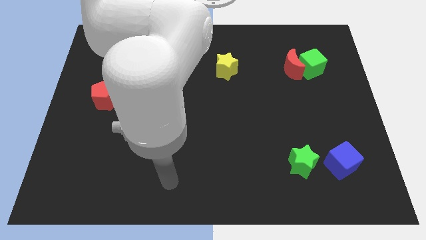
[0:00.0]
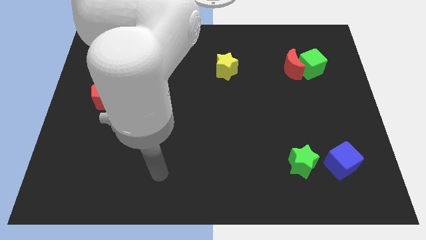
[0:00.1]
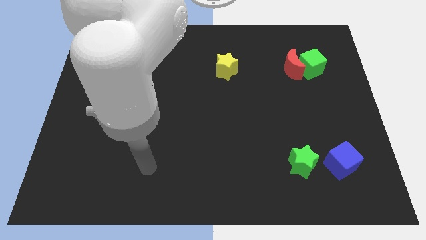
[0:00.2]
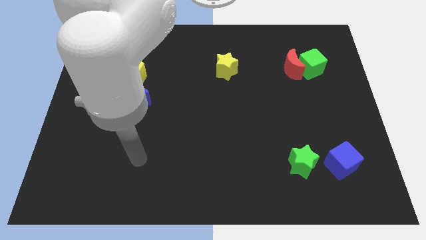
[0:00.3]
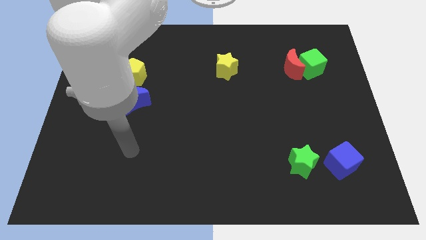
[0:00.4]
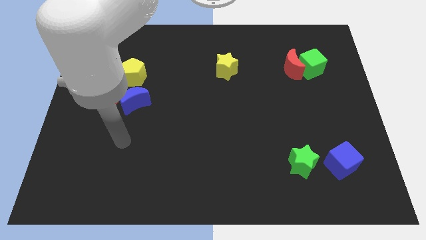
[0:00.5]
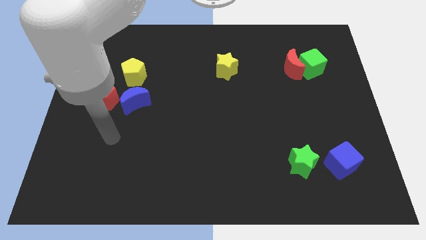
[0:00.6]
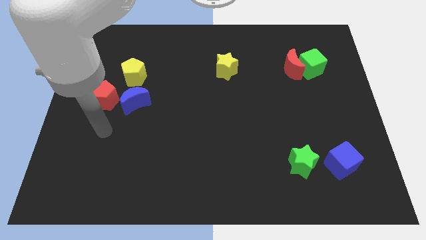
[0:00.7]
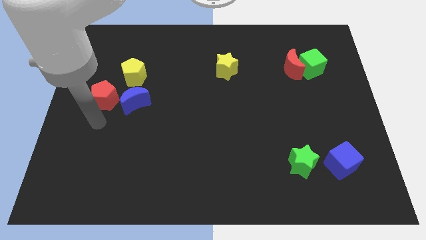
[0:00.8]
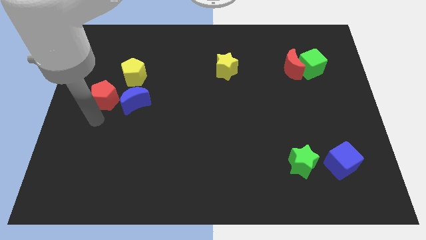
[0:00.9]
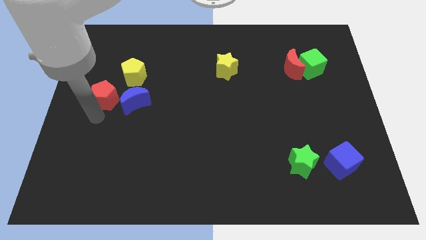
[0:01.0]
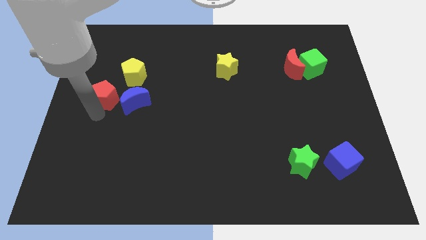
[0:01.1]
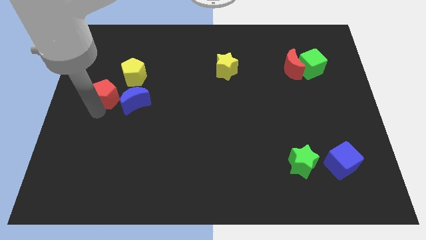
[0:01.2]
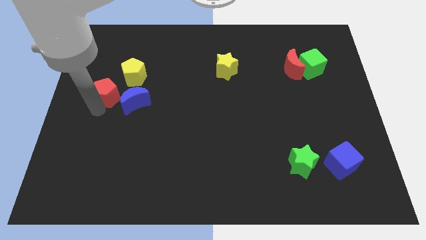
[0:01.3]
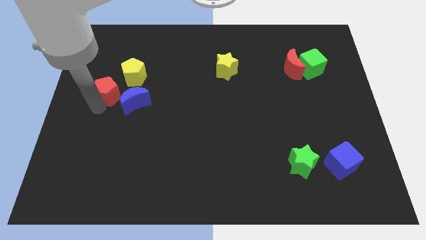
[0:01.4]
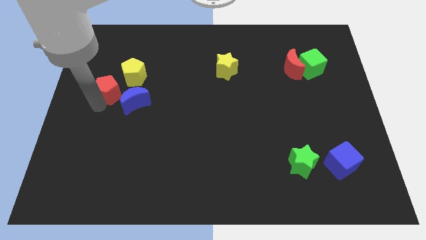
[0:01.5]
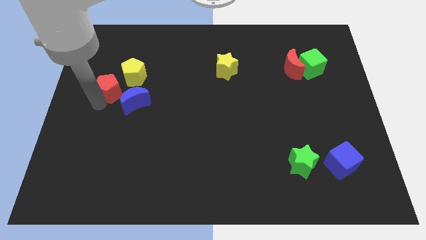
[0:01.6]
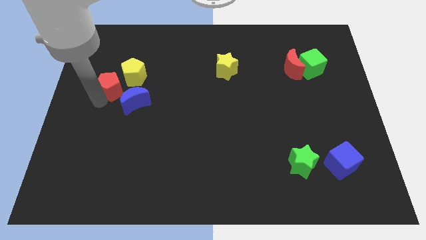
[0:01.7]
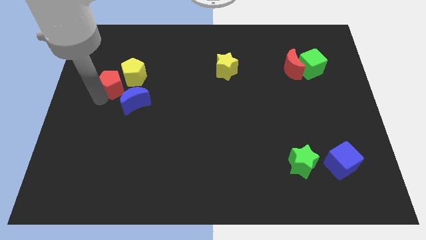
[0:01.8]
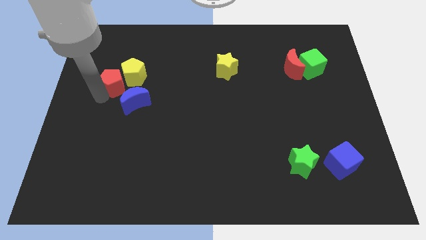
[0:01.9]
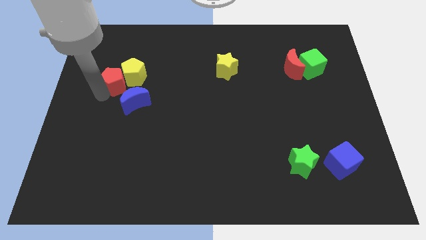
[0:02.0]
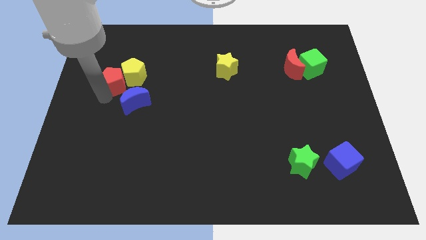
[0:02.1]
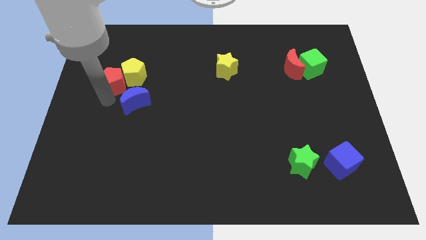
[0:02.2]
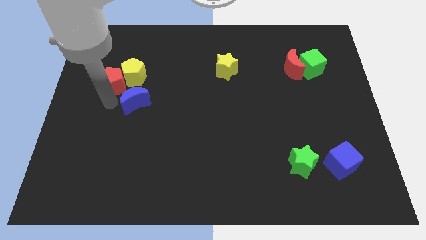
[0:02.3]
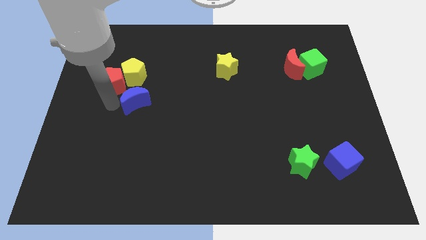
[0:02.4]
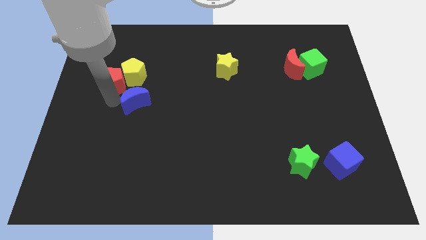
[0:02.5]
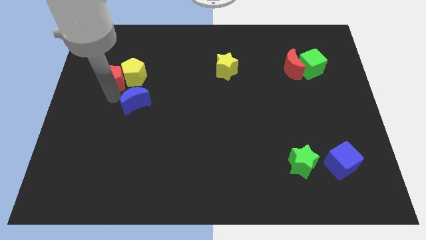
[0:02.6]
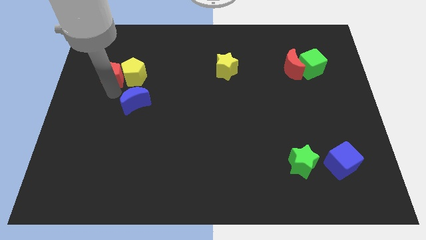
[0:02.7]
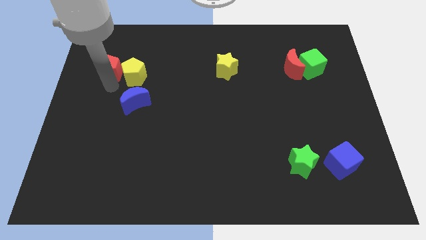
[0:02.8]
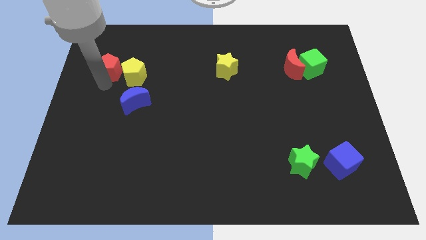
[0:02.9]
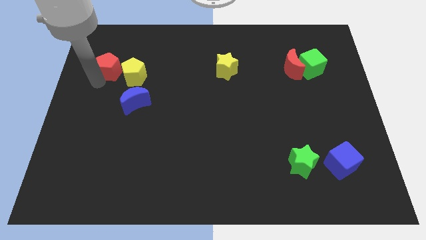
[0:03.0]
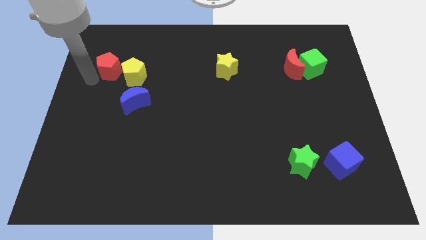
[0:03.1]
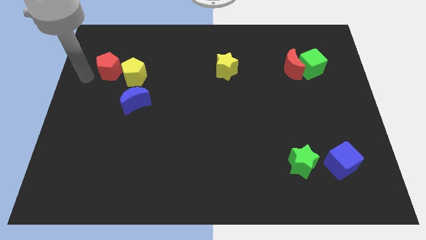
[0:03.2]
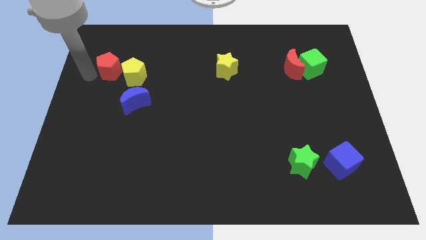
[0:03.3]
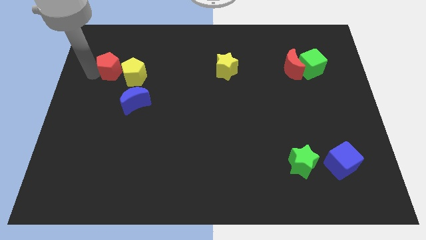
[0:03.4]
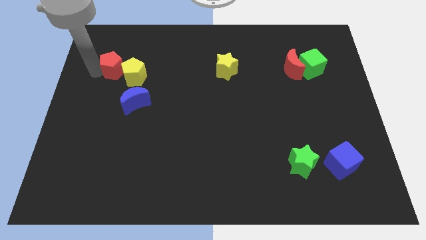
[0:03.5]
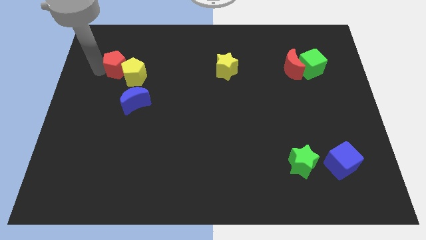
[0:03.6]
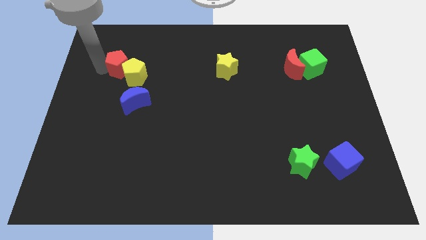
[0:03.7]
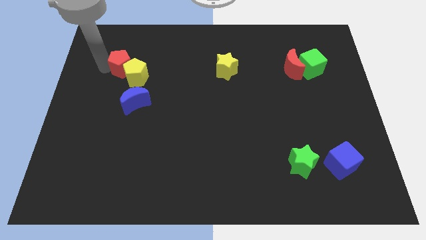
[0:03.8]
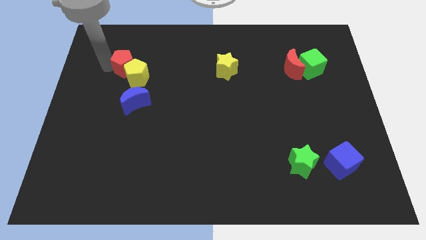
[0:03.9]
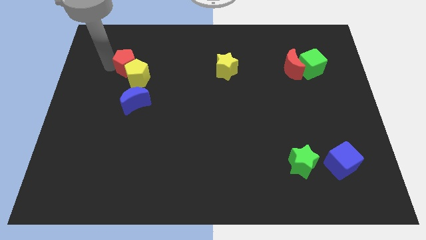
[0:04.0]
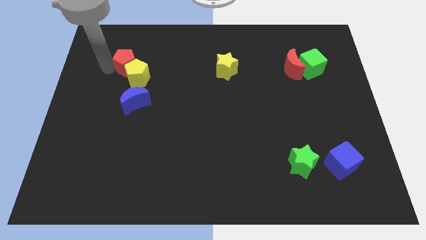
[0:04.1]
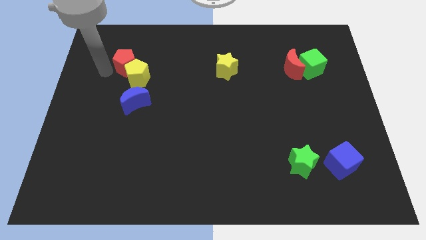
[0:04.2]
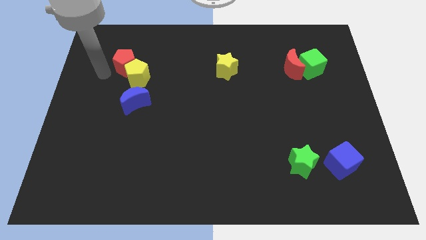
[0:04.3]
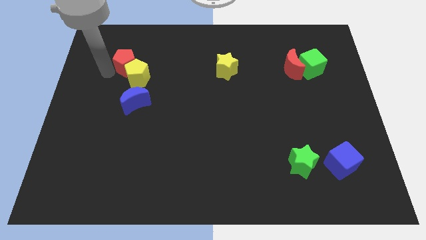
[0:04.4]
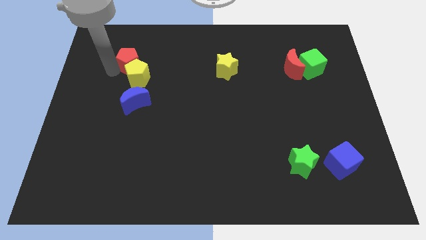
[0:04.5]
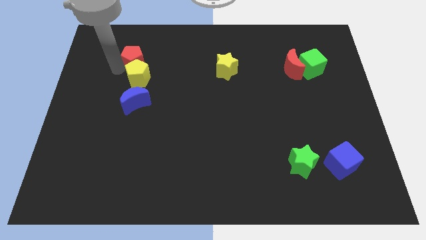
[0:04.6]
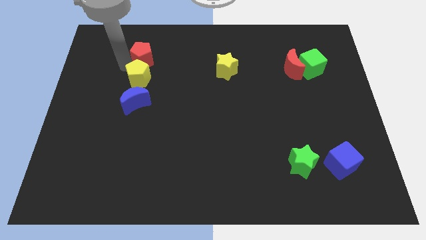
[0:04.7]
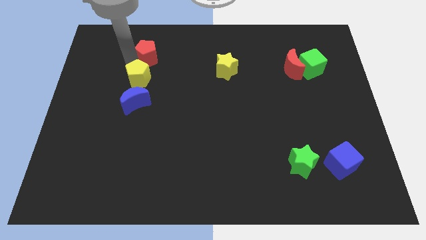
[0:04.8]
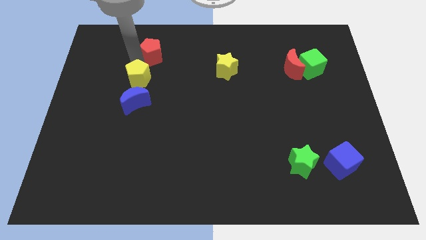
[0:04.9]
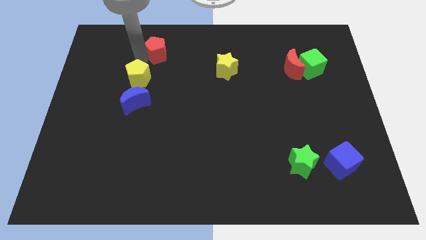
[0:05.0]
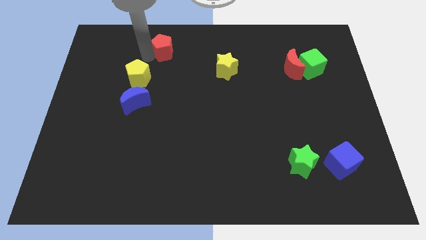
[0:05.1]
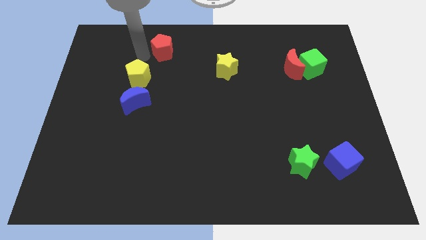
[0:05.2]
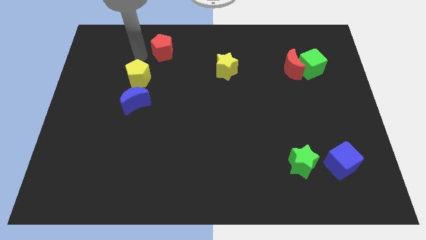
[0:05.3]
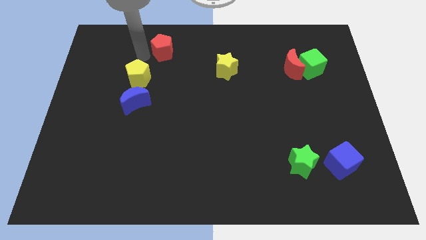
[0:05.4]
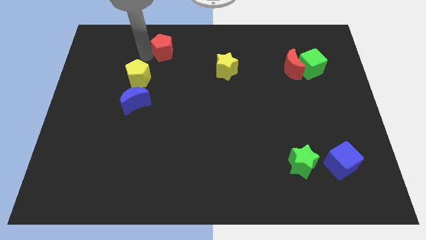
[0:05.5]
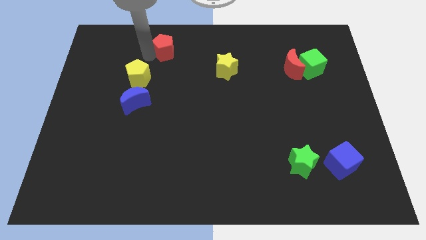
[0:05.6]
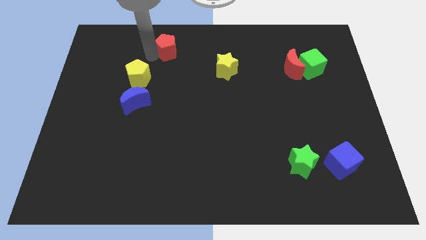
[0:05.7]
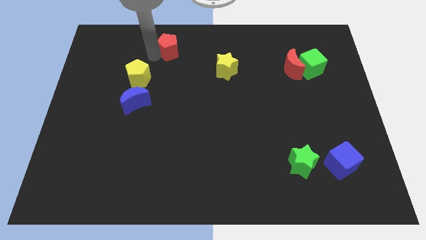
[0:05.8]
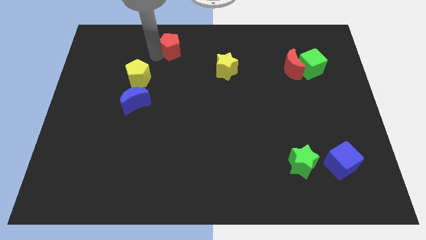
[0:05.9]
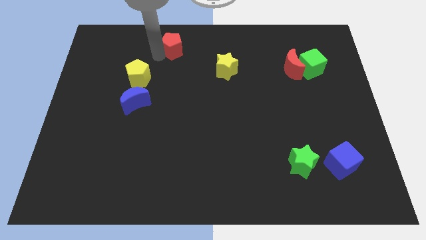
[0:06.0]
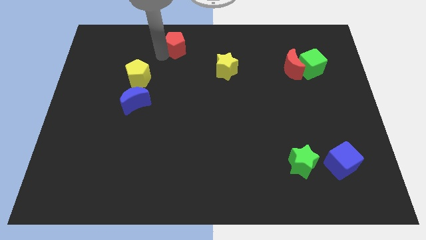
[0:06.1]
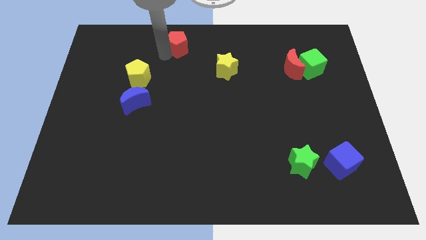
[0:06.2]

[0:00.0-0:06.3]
move the red pentagon to the towards your base
